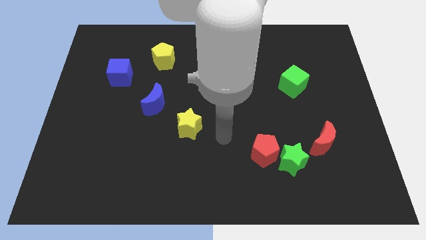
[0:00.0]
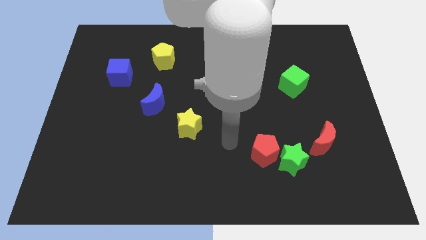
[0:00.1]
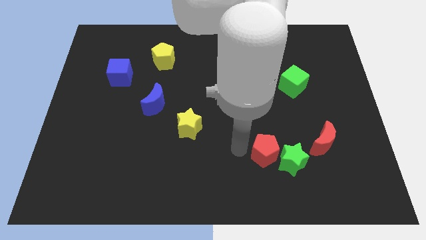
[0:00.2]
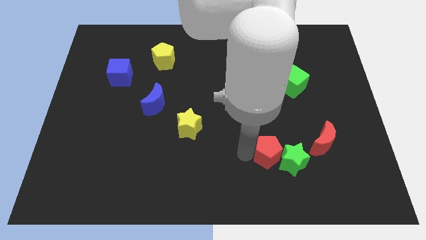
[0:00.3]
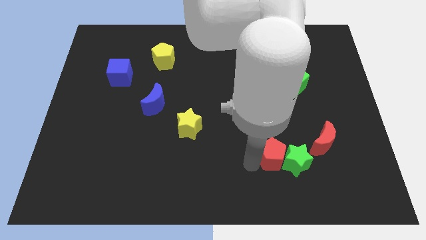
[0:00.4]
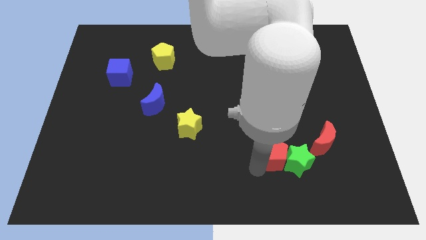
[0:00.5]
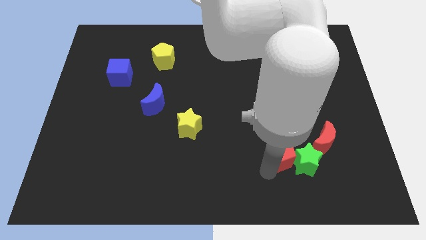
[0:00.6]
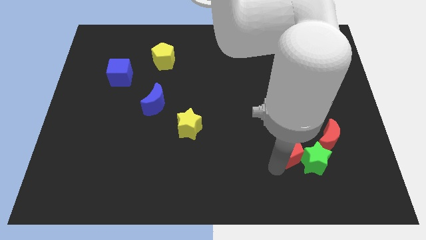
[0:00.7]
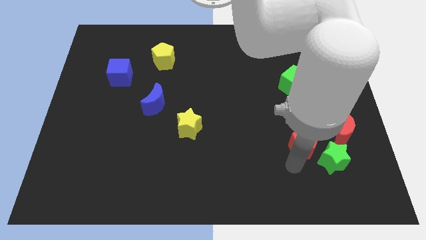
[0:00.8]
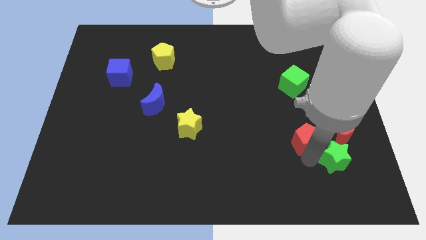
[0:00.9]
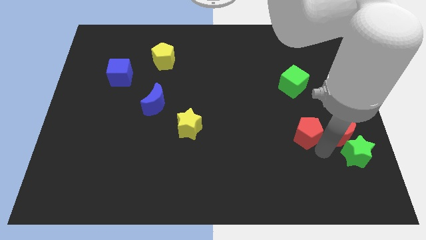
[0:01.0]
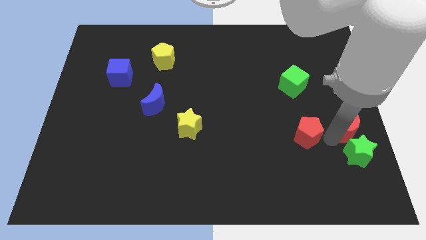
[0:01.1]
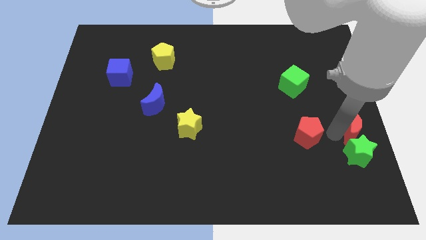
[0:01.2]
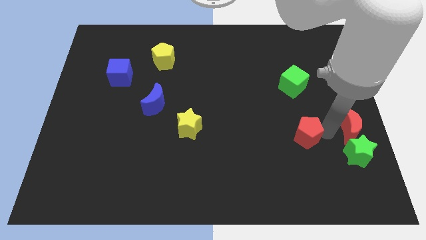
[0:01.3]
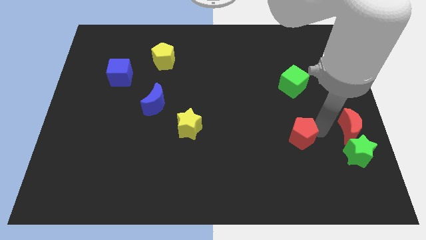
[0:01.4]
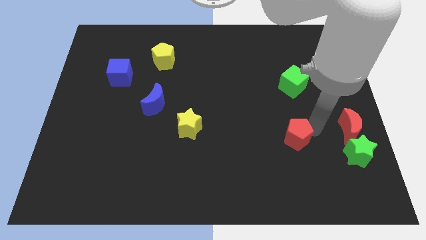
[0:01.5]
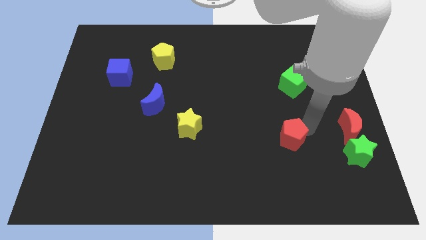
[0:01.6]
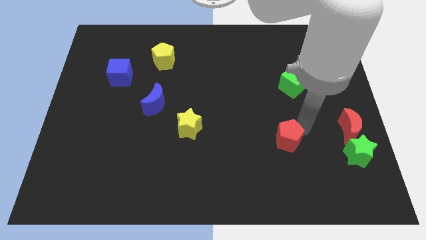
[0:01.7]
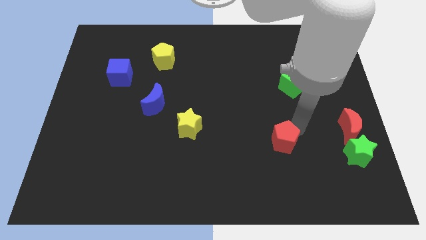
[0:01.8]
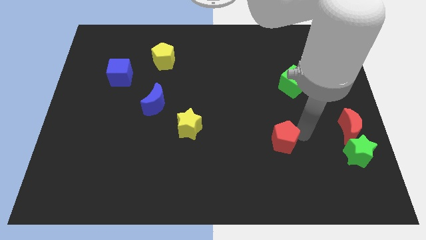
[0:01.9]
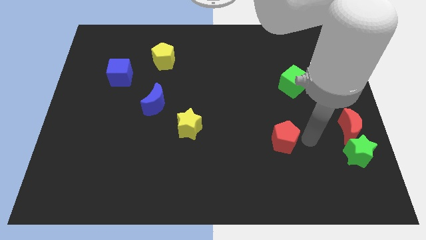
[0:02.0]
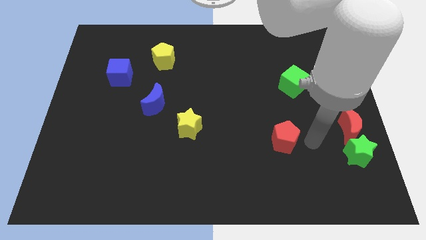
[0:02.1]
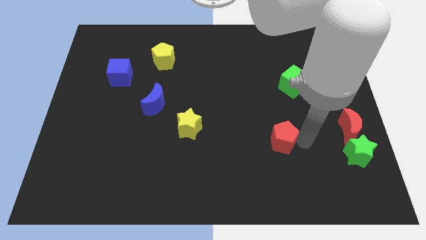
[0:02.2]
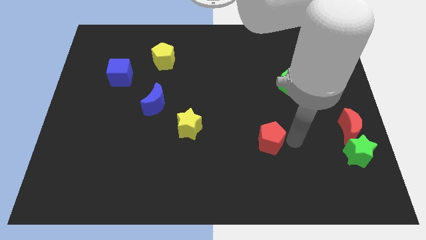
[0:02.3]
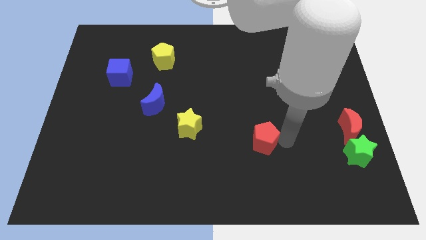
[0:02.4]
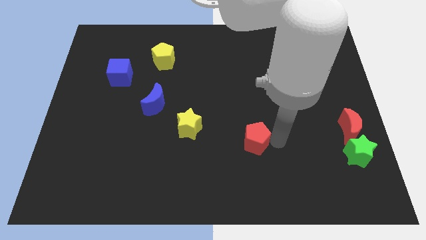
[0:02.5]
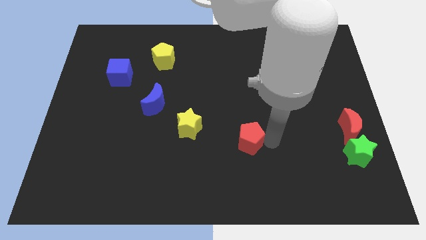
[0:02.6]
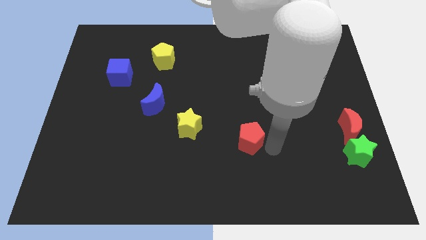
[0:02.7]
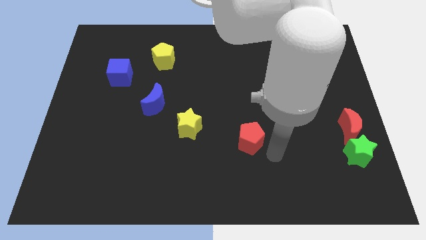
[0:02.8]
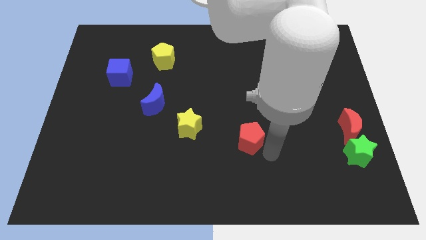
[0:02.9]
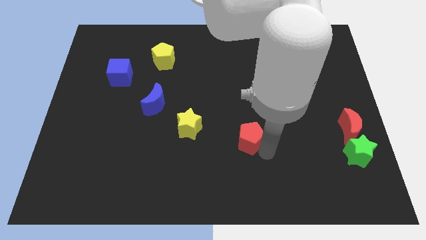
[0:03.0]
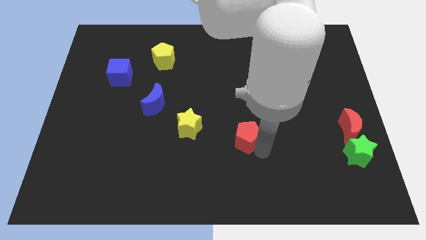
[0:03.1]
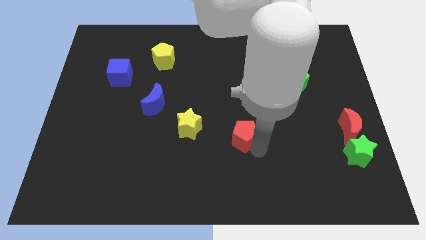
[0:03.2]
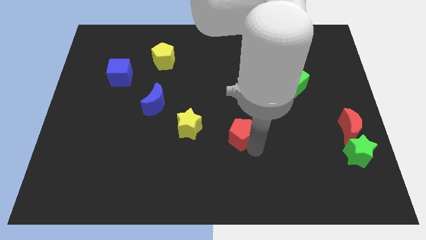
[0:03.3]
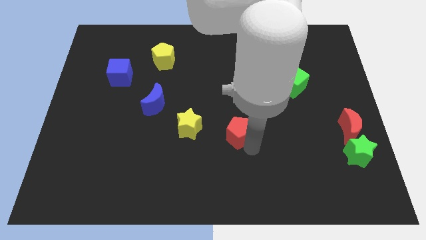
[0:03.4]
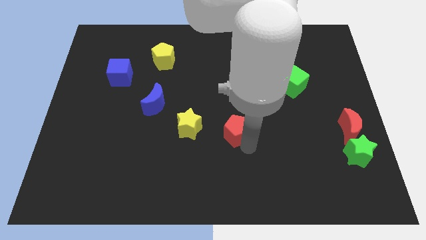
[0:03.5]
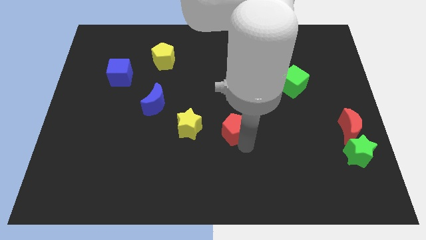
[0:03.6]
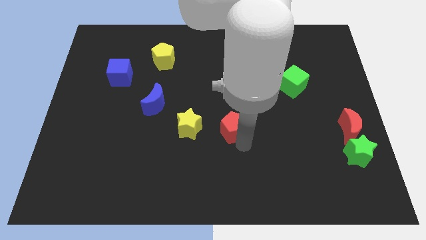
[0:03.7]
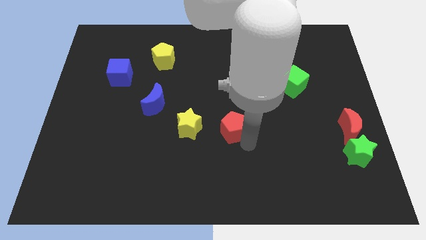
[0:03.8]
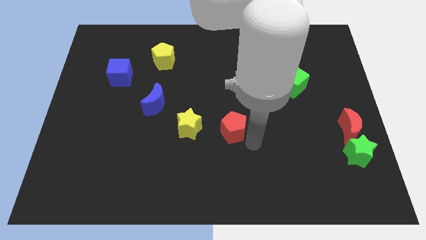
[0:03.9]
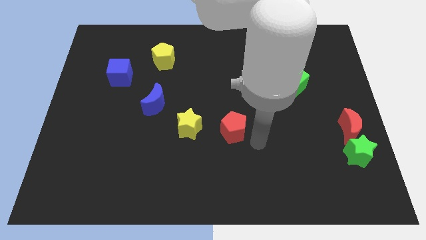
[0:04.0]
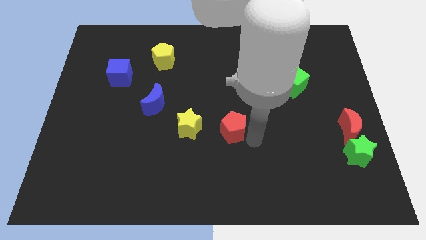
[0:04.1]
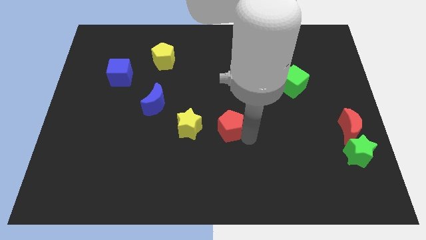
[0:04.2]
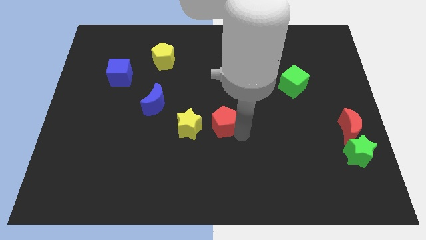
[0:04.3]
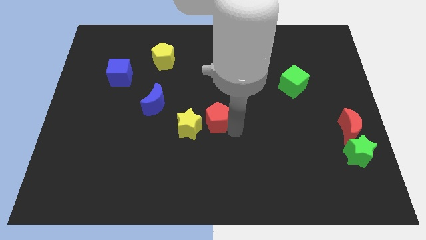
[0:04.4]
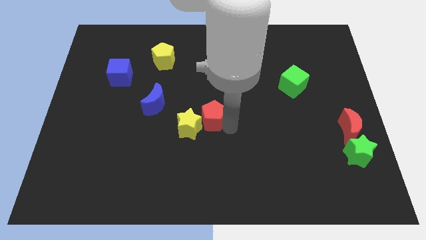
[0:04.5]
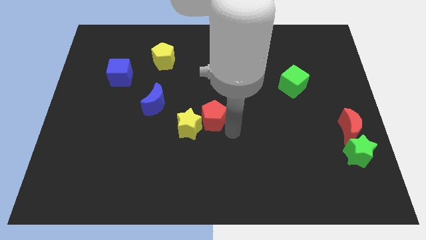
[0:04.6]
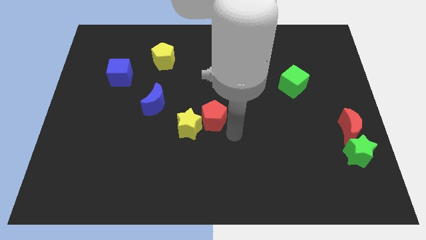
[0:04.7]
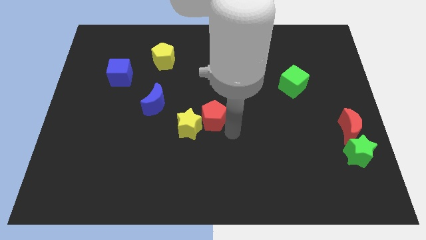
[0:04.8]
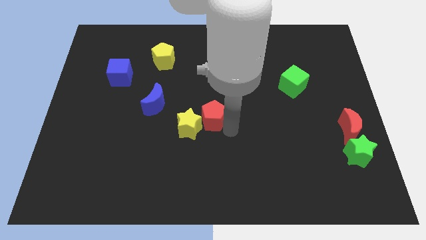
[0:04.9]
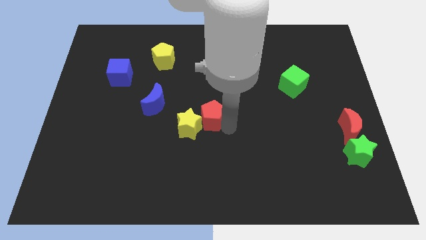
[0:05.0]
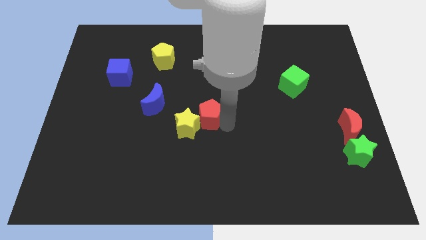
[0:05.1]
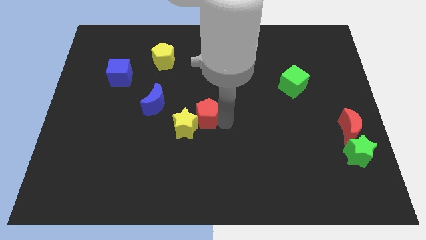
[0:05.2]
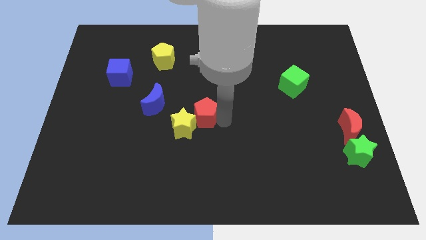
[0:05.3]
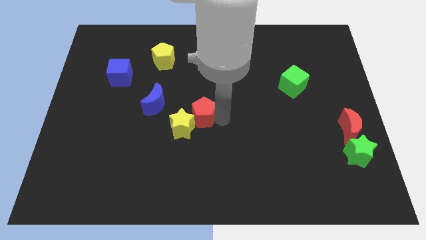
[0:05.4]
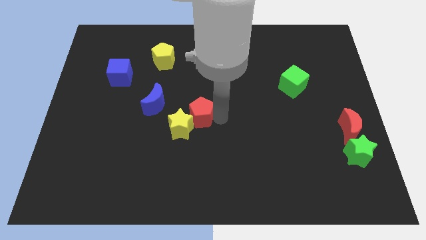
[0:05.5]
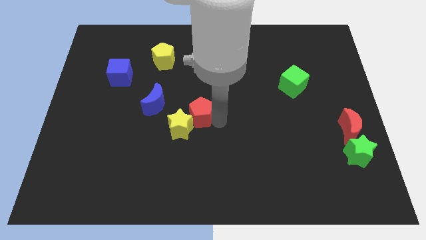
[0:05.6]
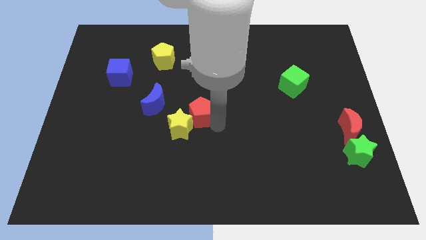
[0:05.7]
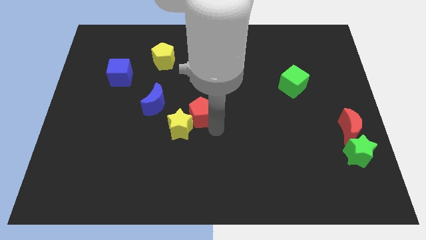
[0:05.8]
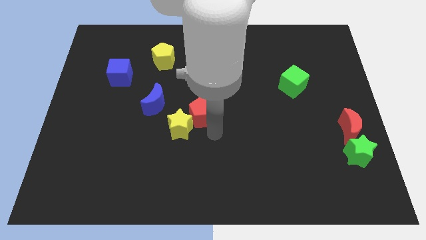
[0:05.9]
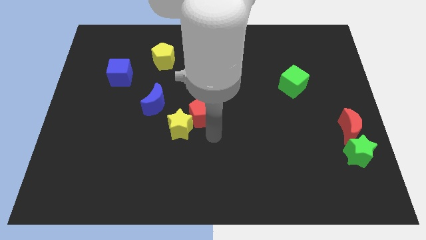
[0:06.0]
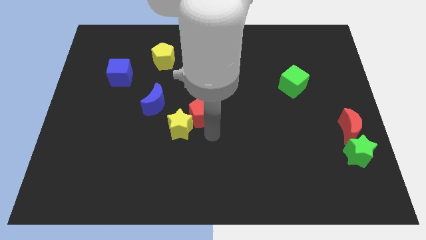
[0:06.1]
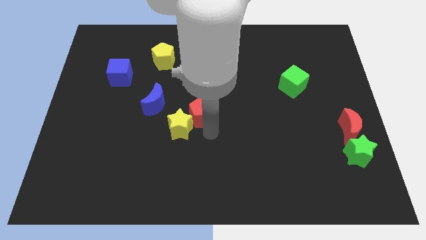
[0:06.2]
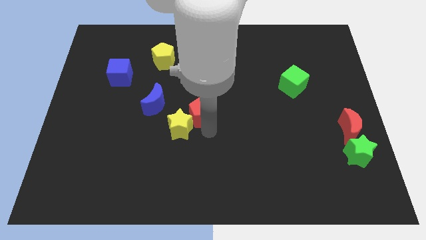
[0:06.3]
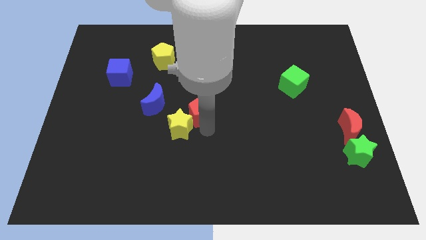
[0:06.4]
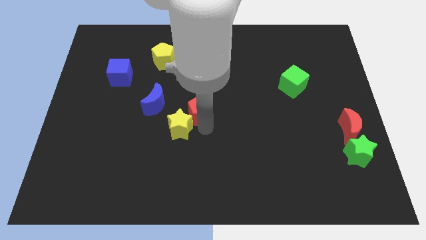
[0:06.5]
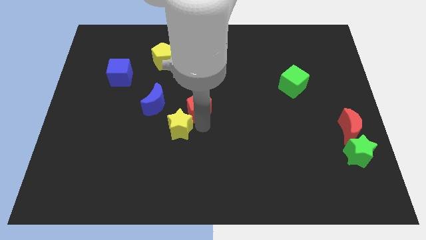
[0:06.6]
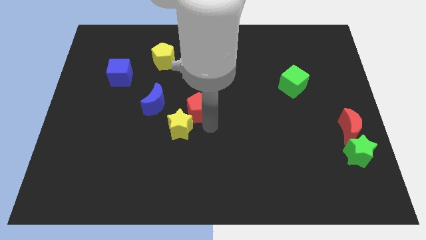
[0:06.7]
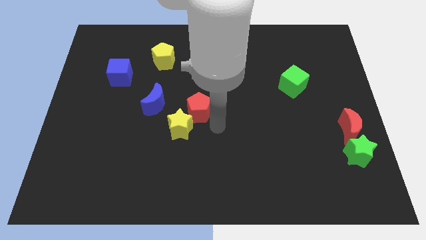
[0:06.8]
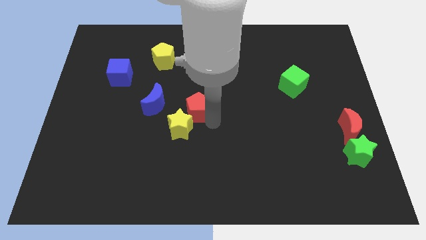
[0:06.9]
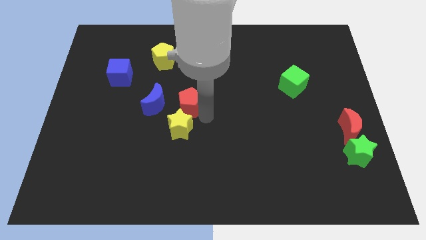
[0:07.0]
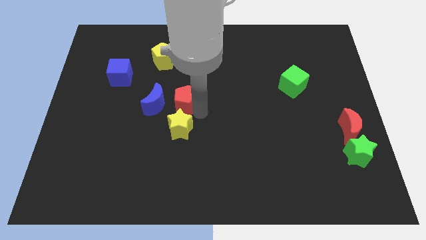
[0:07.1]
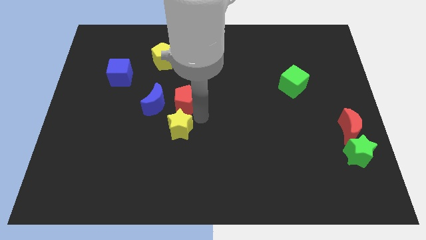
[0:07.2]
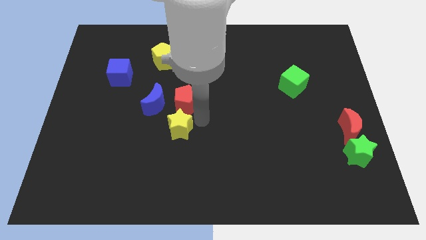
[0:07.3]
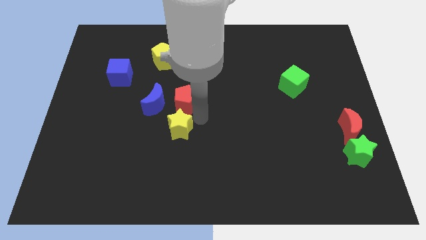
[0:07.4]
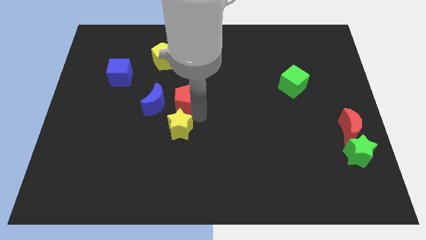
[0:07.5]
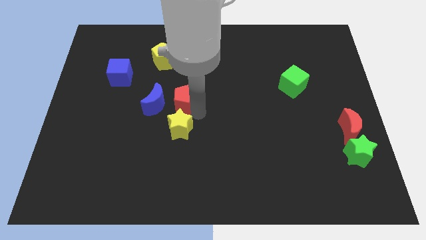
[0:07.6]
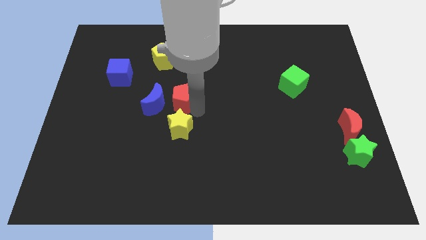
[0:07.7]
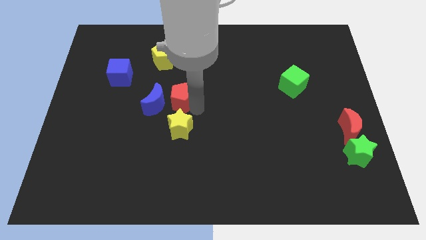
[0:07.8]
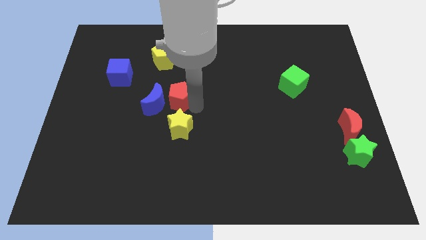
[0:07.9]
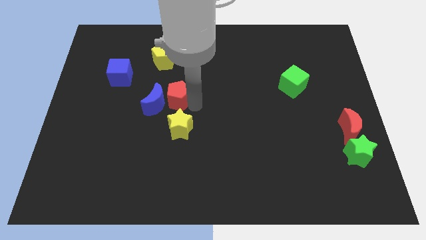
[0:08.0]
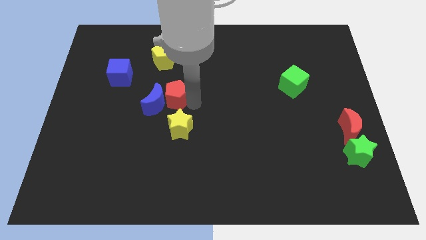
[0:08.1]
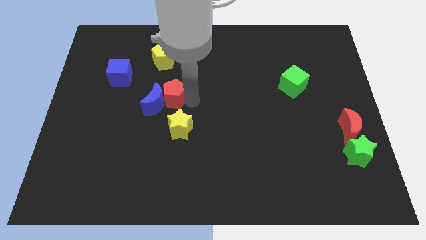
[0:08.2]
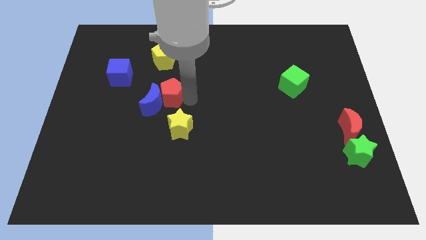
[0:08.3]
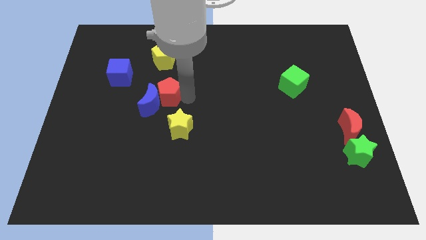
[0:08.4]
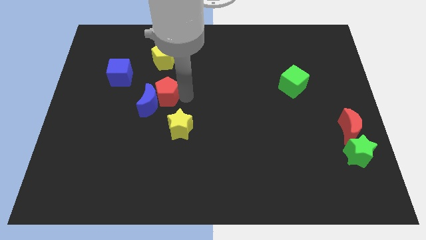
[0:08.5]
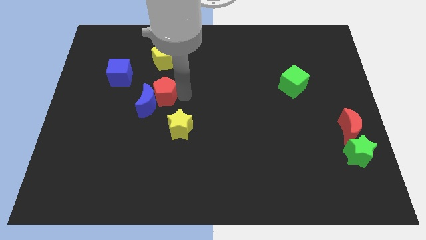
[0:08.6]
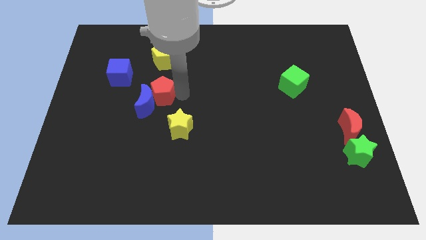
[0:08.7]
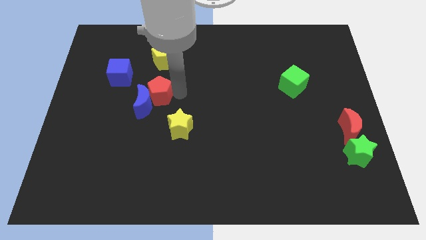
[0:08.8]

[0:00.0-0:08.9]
move the red pentagon diagonally down and to the right of the blue cube
